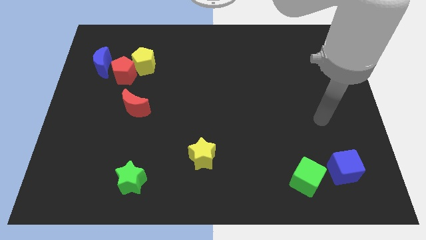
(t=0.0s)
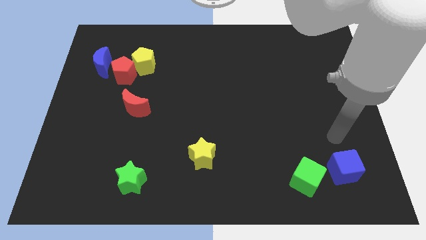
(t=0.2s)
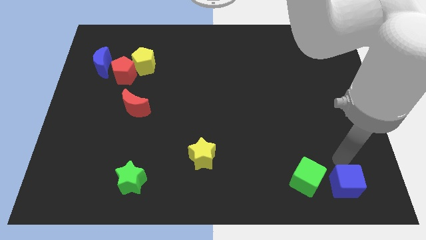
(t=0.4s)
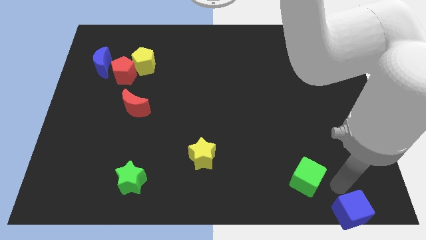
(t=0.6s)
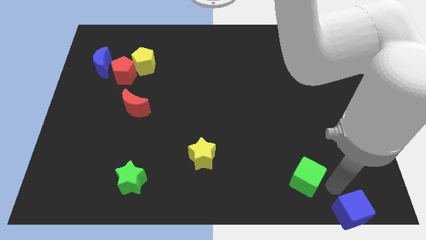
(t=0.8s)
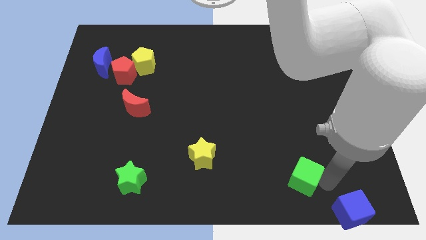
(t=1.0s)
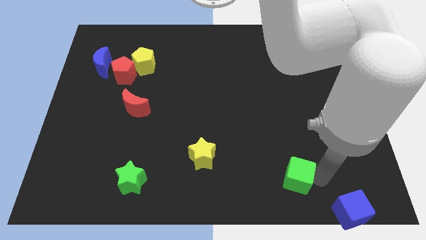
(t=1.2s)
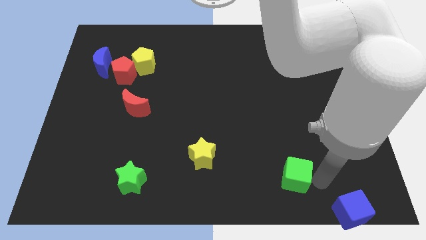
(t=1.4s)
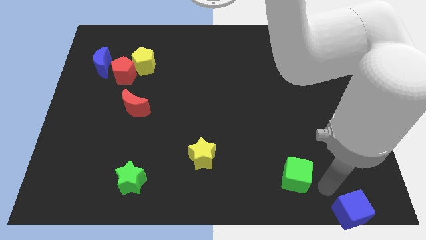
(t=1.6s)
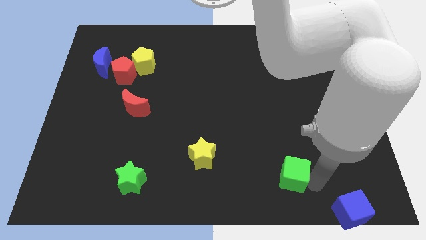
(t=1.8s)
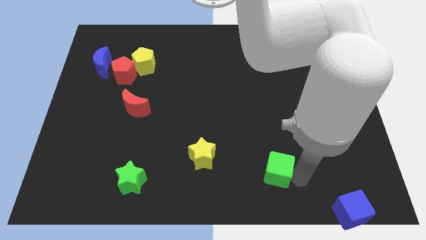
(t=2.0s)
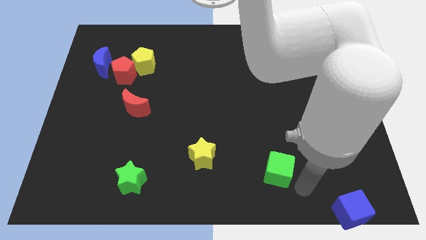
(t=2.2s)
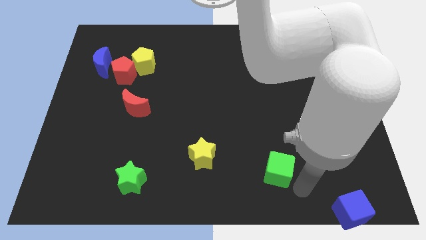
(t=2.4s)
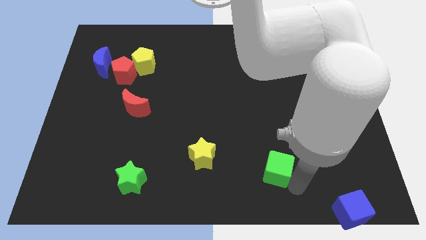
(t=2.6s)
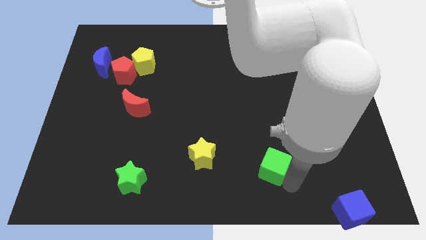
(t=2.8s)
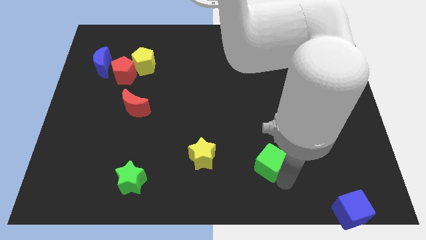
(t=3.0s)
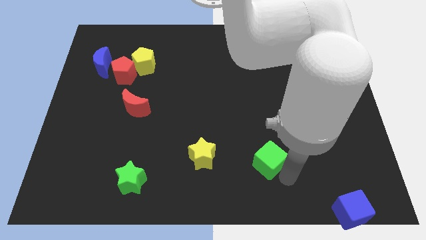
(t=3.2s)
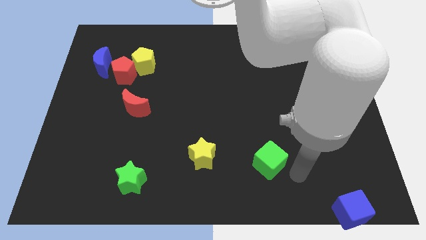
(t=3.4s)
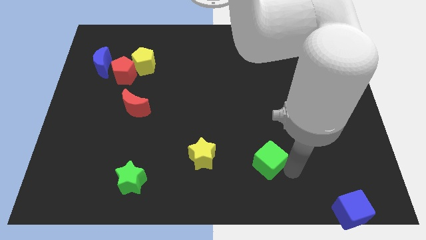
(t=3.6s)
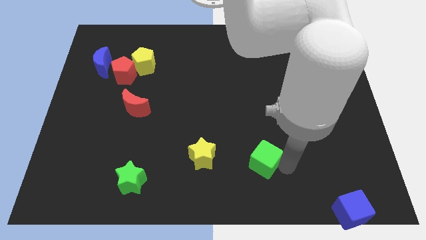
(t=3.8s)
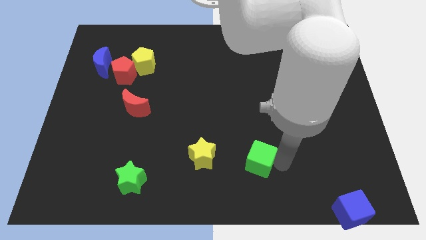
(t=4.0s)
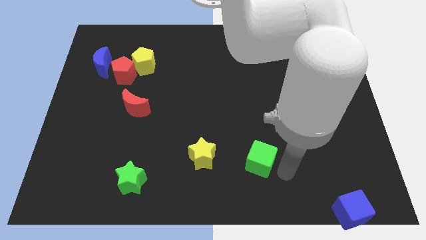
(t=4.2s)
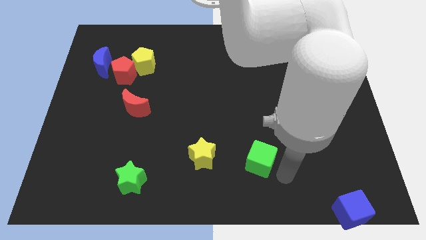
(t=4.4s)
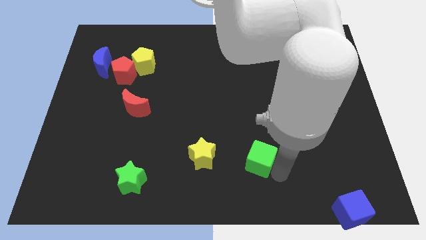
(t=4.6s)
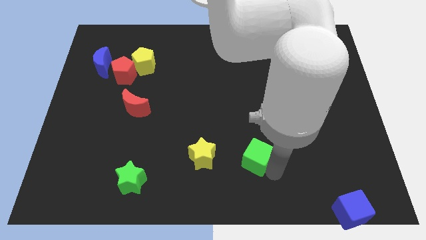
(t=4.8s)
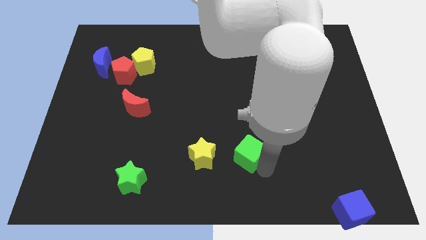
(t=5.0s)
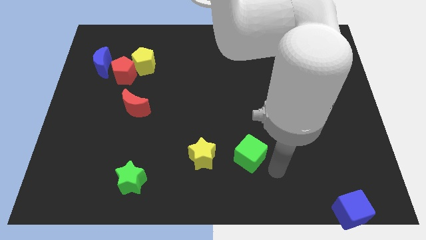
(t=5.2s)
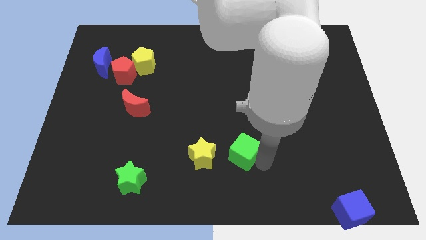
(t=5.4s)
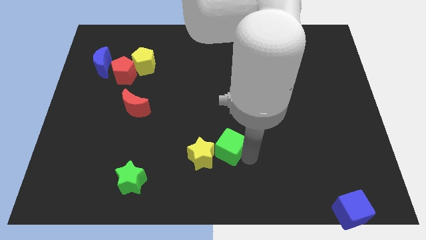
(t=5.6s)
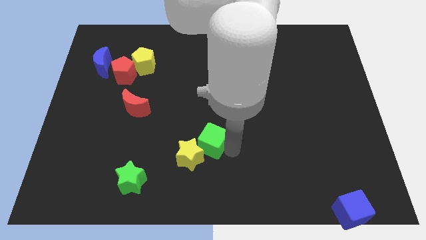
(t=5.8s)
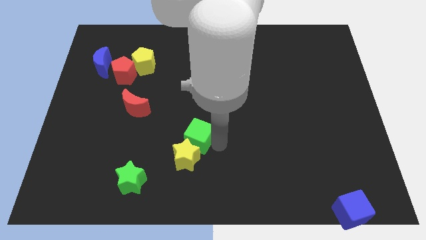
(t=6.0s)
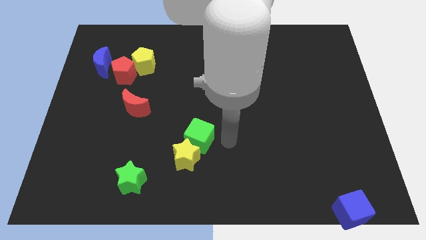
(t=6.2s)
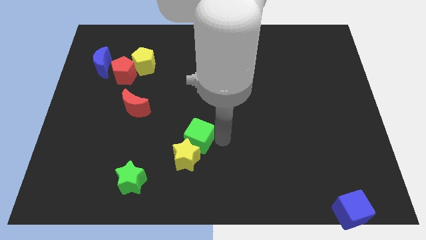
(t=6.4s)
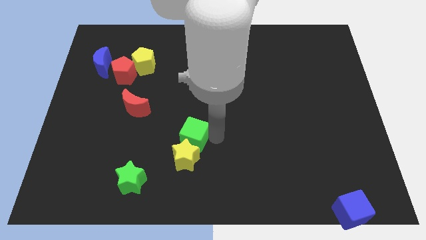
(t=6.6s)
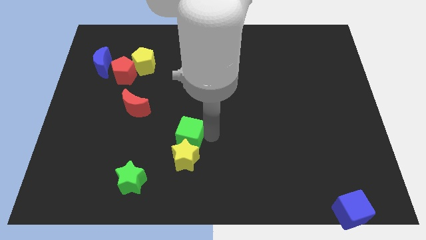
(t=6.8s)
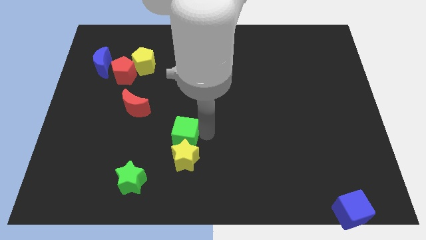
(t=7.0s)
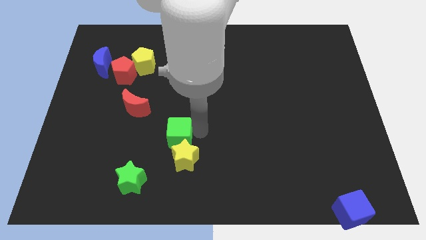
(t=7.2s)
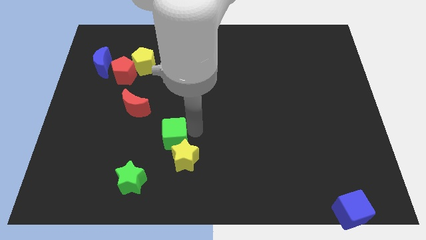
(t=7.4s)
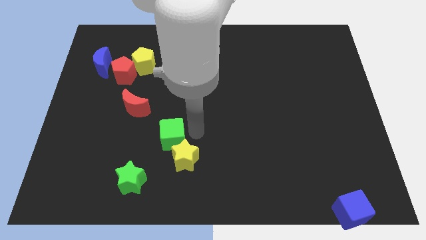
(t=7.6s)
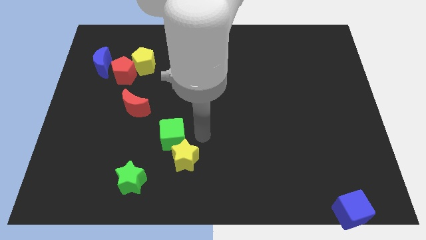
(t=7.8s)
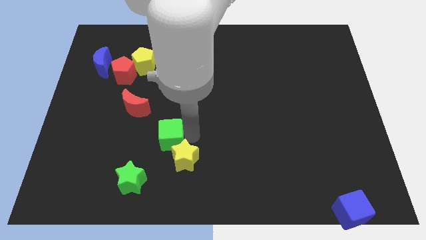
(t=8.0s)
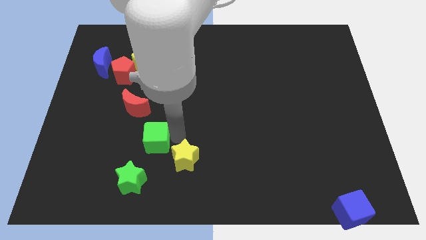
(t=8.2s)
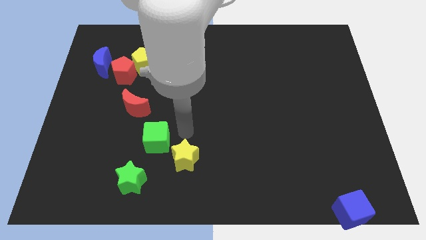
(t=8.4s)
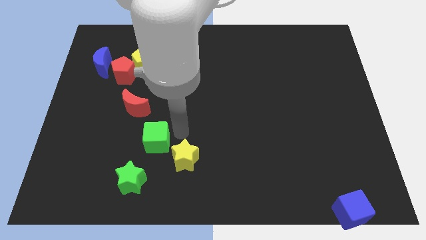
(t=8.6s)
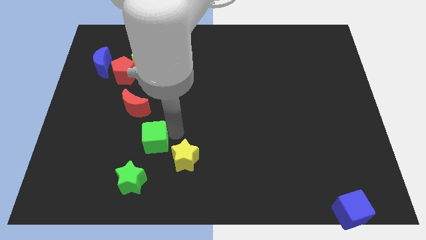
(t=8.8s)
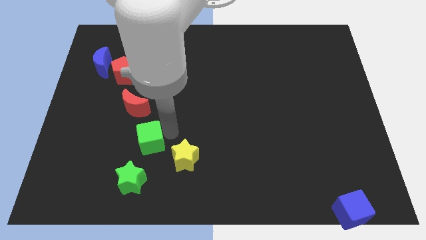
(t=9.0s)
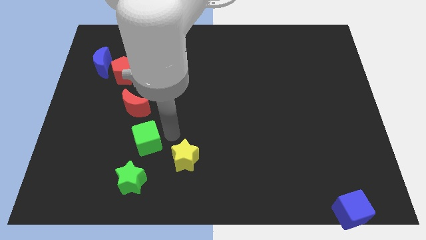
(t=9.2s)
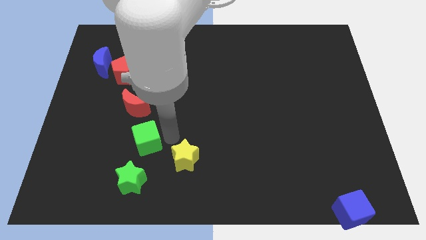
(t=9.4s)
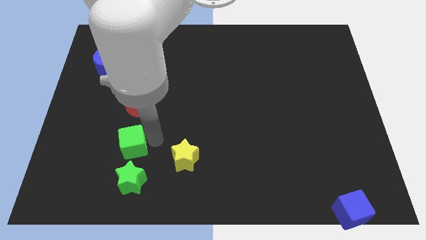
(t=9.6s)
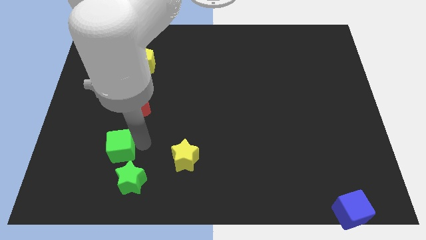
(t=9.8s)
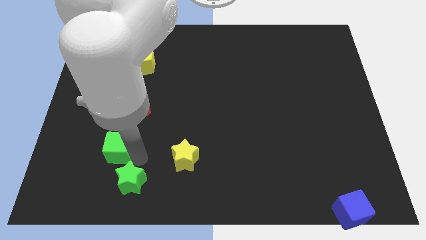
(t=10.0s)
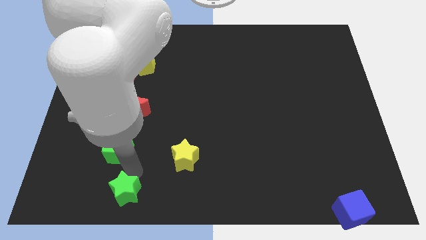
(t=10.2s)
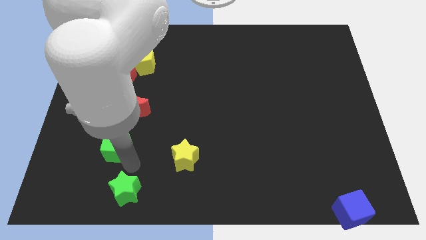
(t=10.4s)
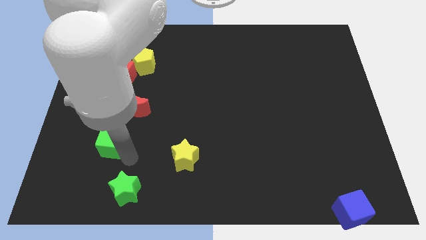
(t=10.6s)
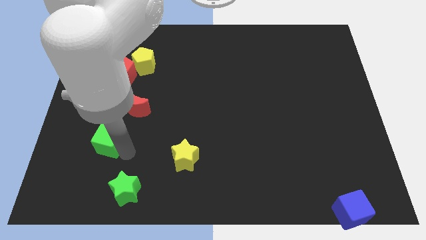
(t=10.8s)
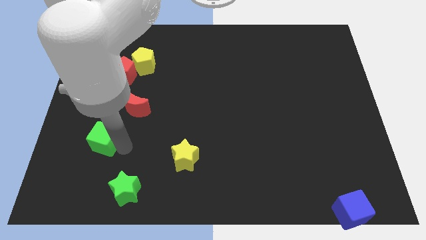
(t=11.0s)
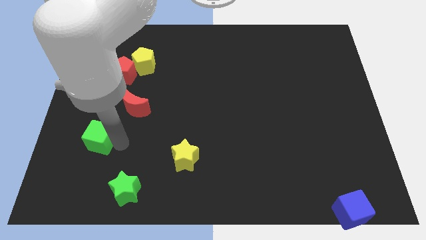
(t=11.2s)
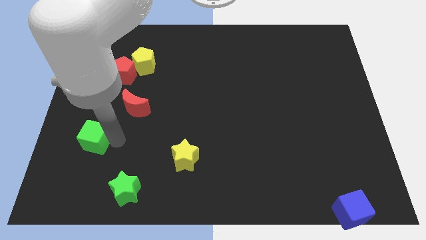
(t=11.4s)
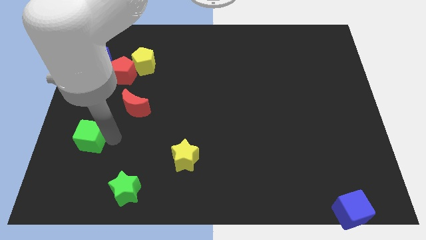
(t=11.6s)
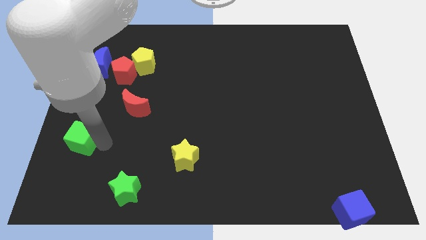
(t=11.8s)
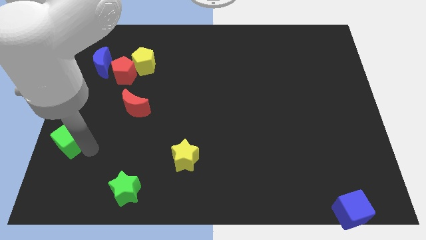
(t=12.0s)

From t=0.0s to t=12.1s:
slide the green cube to the left side of the board

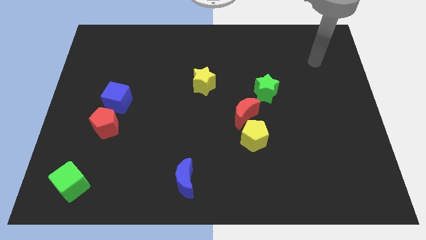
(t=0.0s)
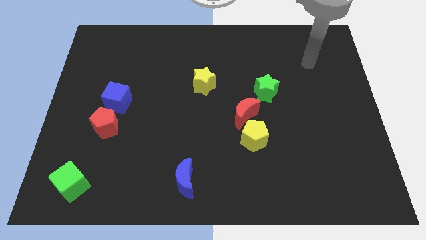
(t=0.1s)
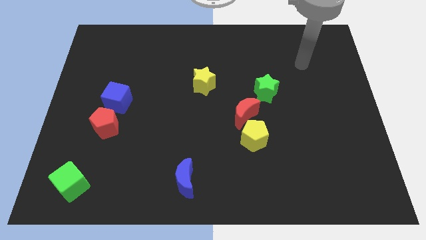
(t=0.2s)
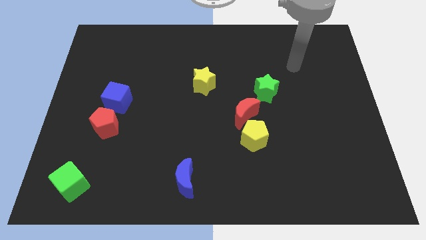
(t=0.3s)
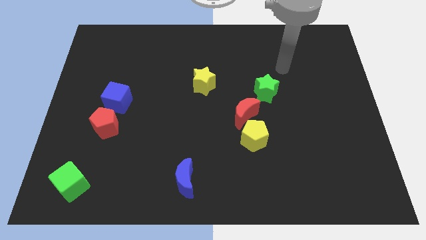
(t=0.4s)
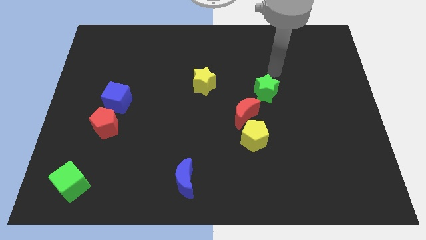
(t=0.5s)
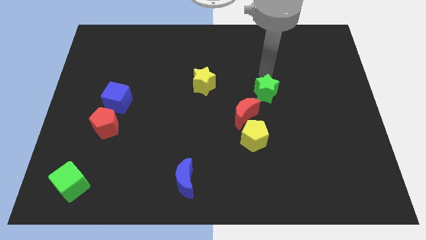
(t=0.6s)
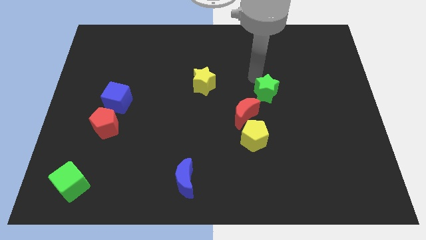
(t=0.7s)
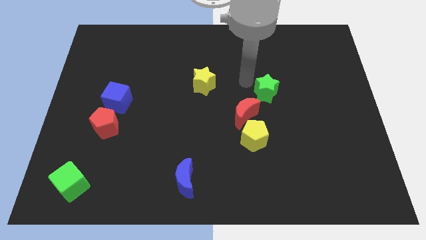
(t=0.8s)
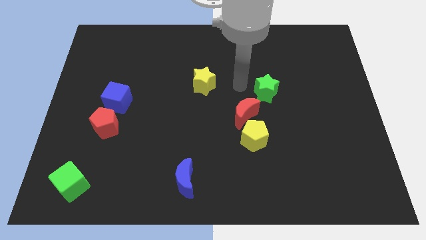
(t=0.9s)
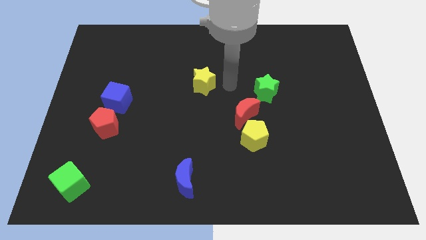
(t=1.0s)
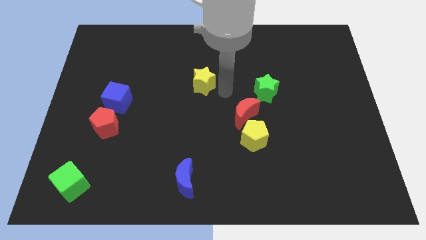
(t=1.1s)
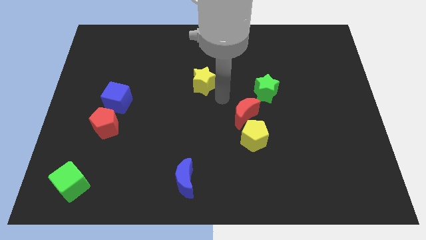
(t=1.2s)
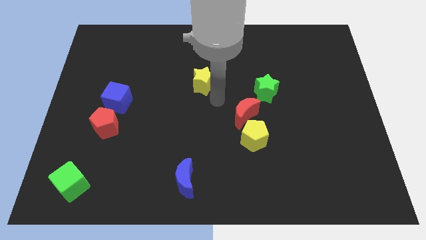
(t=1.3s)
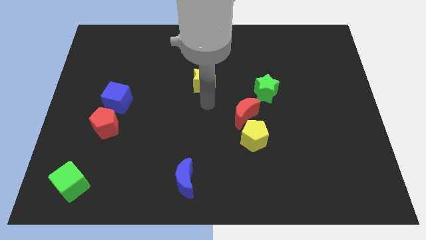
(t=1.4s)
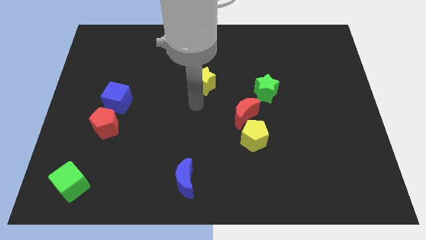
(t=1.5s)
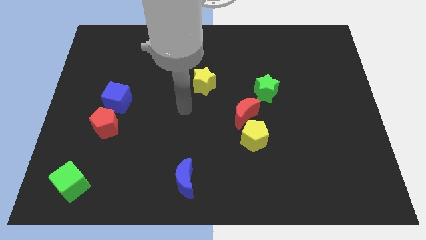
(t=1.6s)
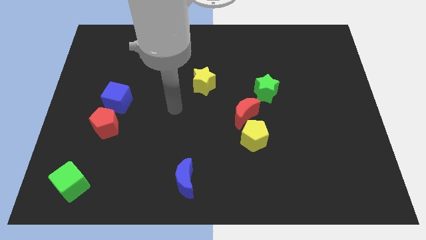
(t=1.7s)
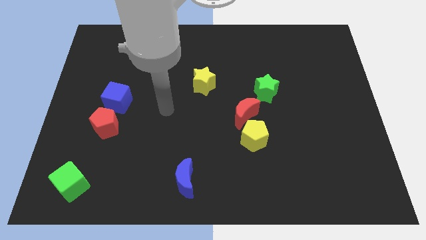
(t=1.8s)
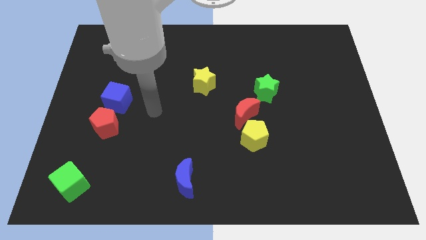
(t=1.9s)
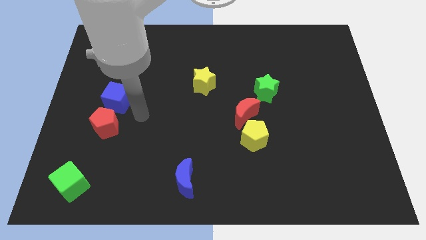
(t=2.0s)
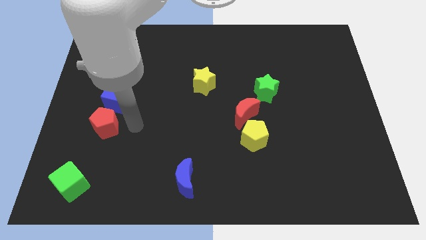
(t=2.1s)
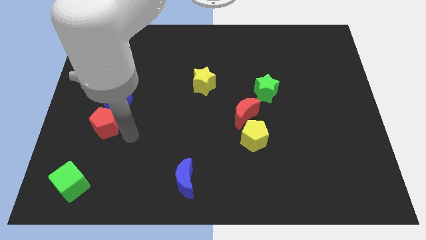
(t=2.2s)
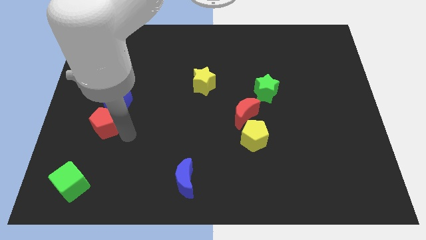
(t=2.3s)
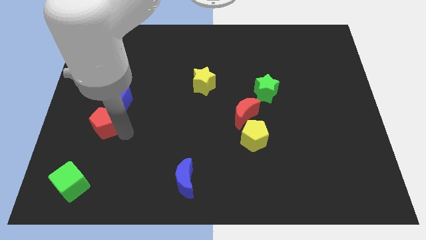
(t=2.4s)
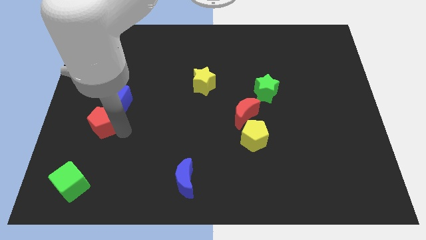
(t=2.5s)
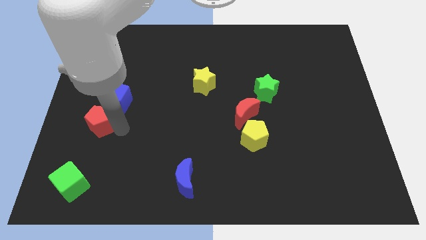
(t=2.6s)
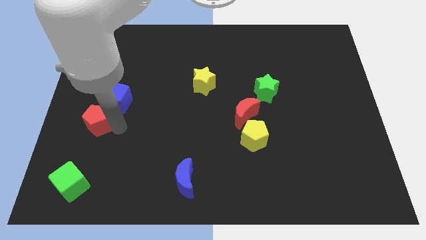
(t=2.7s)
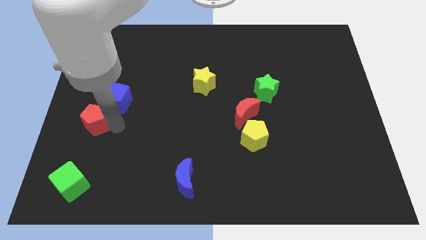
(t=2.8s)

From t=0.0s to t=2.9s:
slide the red pentagon to the left side of the board
